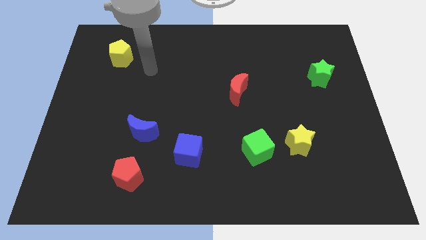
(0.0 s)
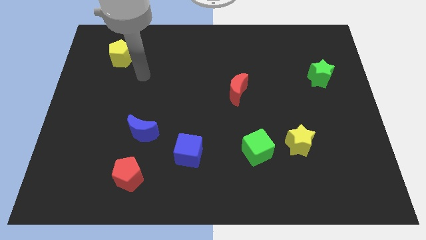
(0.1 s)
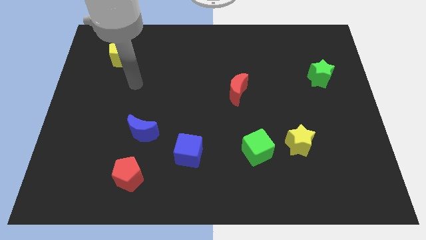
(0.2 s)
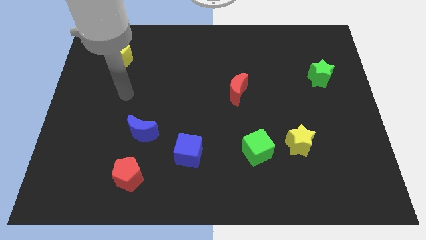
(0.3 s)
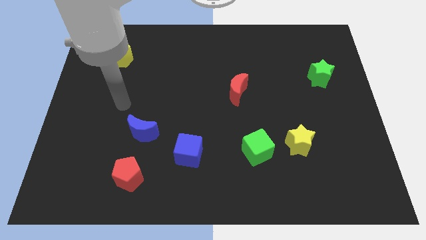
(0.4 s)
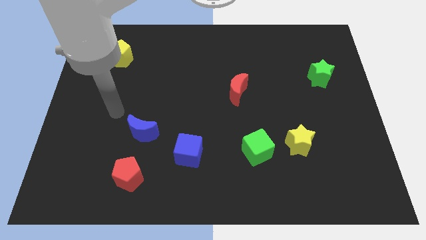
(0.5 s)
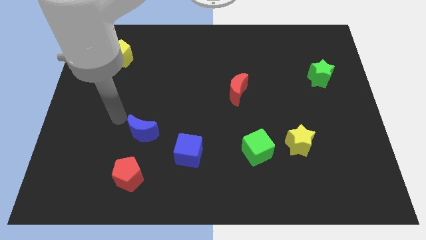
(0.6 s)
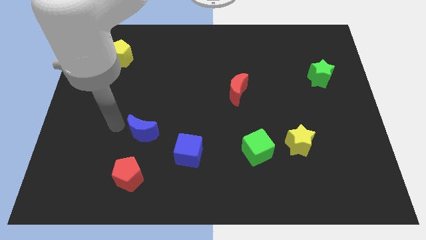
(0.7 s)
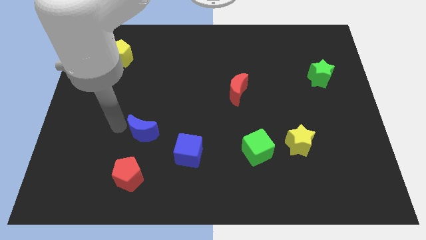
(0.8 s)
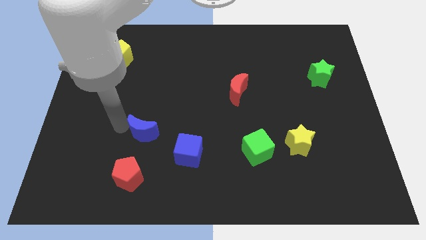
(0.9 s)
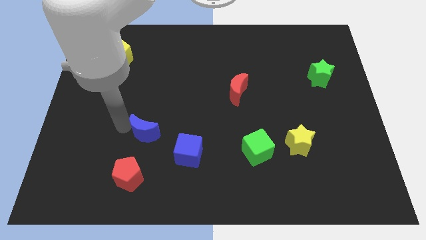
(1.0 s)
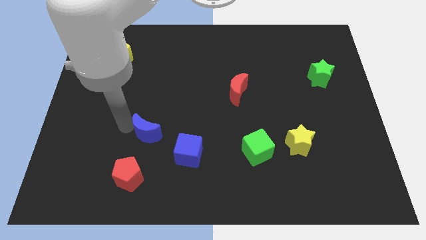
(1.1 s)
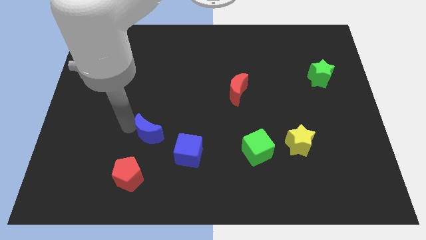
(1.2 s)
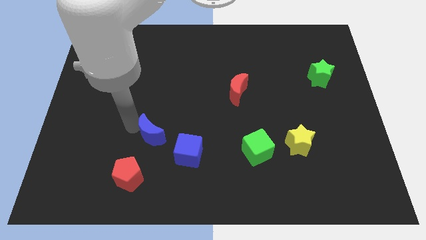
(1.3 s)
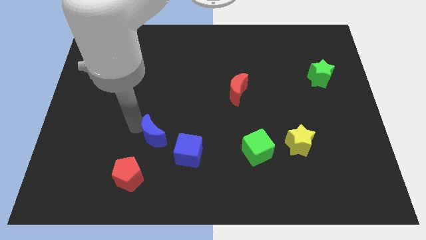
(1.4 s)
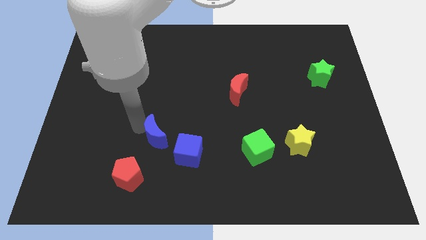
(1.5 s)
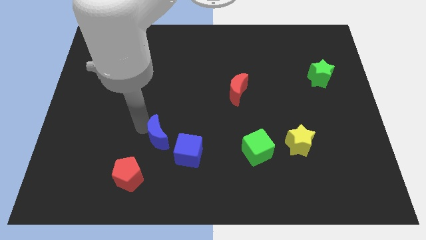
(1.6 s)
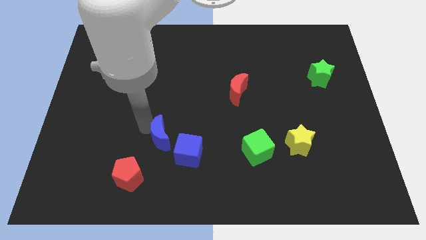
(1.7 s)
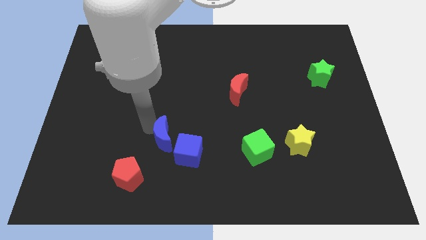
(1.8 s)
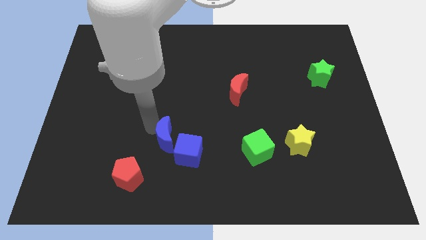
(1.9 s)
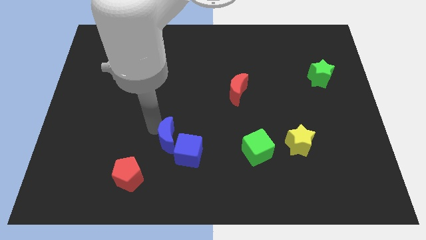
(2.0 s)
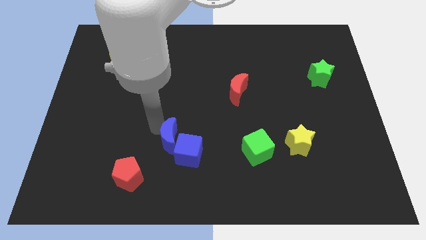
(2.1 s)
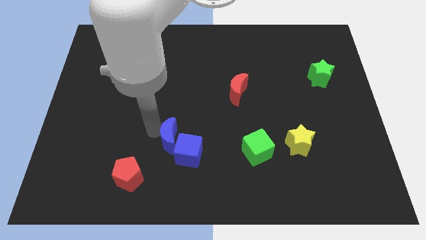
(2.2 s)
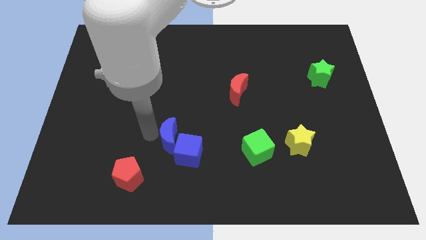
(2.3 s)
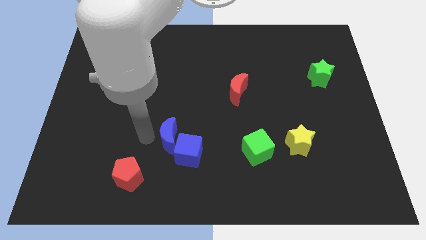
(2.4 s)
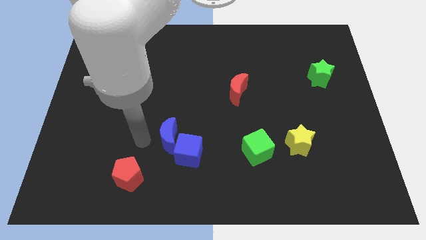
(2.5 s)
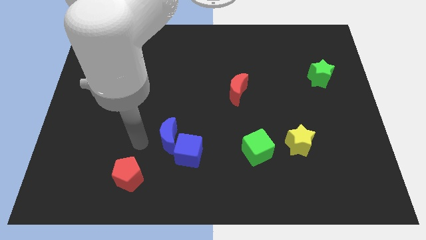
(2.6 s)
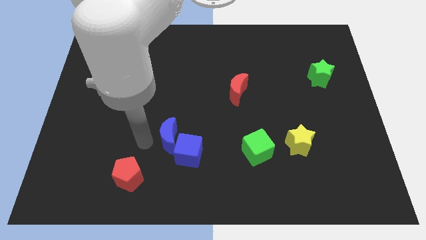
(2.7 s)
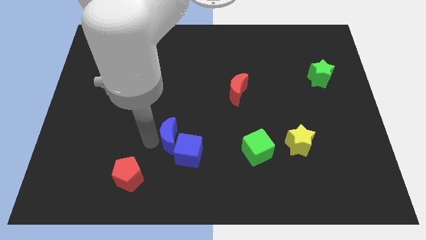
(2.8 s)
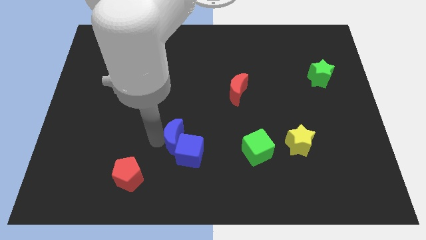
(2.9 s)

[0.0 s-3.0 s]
slide the blue moon somewhat to the right

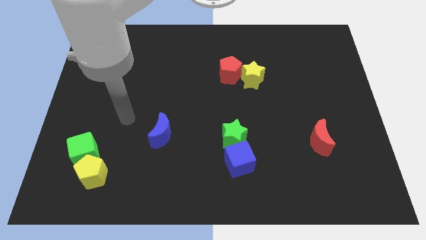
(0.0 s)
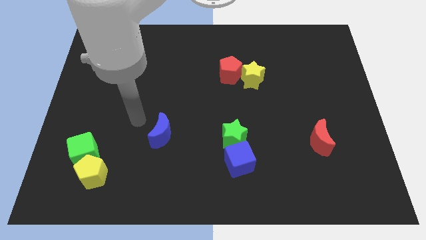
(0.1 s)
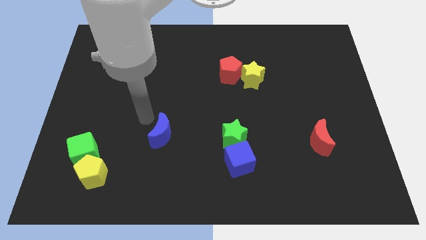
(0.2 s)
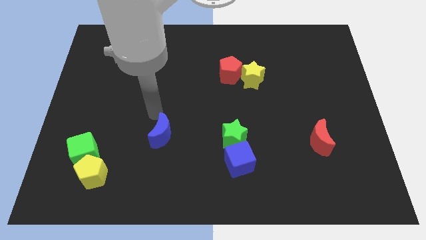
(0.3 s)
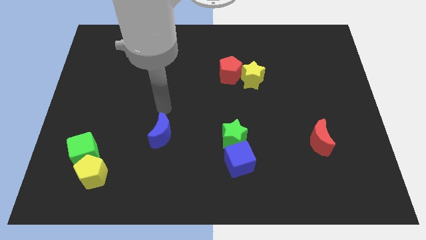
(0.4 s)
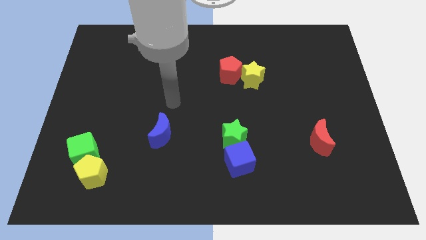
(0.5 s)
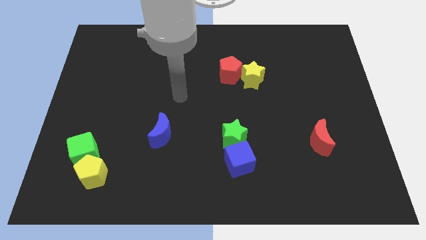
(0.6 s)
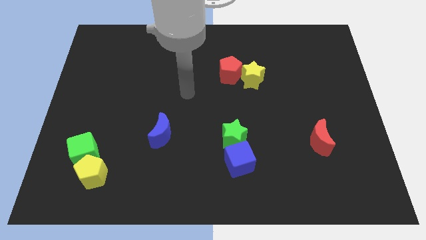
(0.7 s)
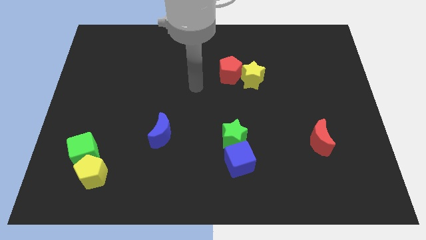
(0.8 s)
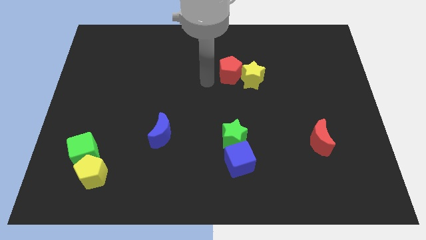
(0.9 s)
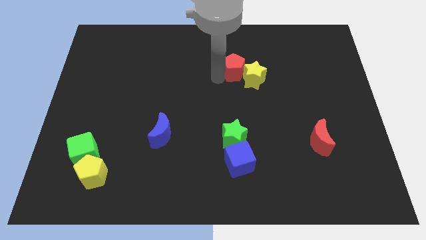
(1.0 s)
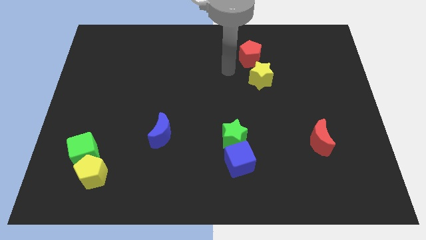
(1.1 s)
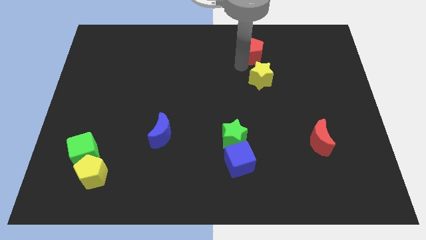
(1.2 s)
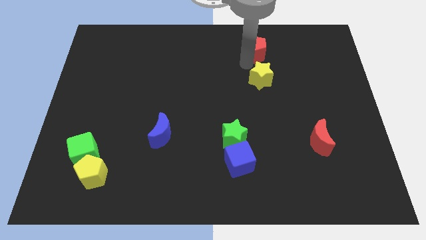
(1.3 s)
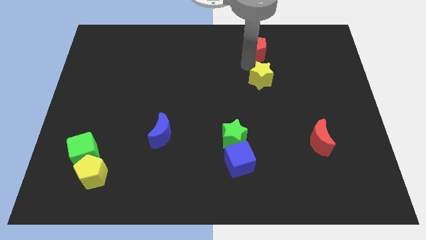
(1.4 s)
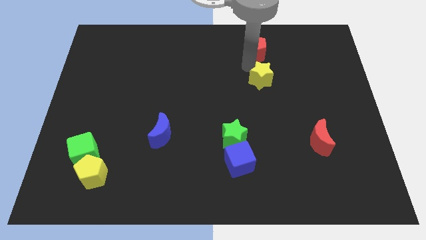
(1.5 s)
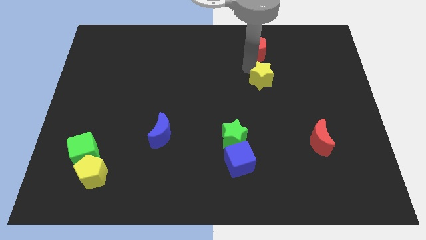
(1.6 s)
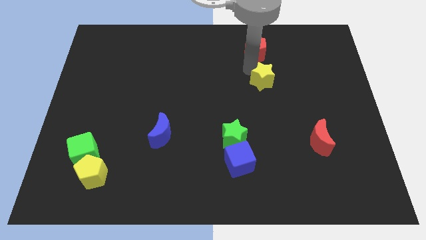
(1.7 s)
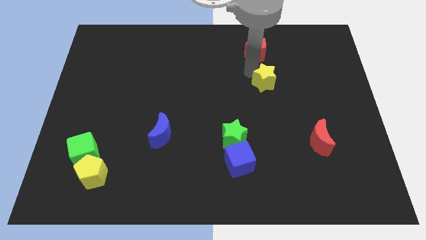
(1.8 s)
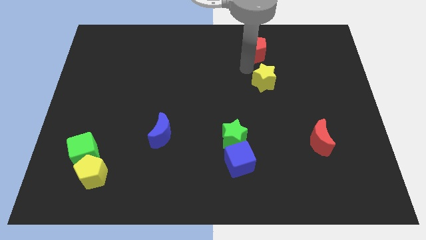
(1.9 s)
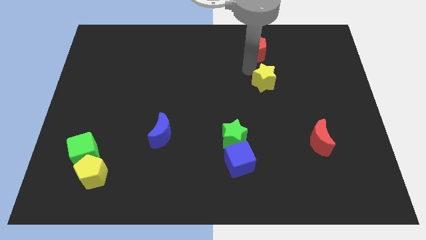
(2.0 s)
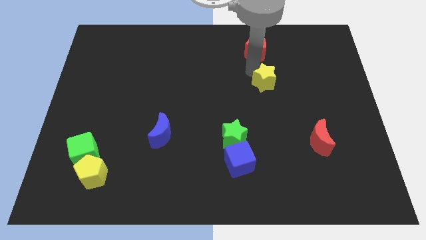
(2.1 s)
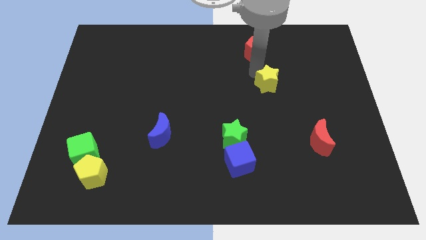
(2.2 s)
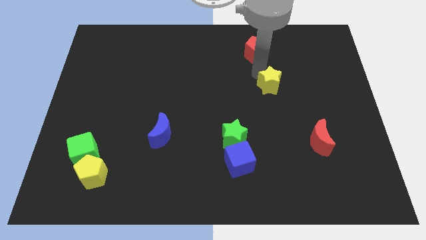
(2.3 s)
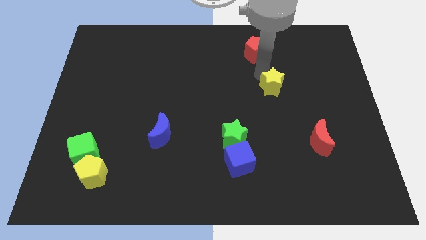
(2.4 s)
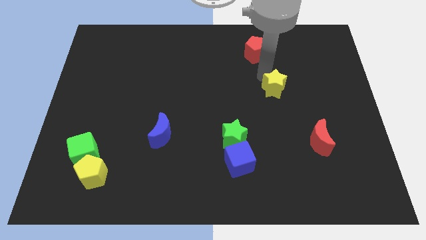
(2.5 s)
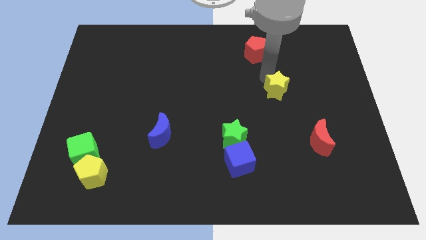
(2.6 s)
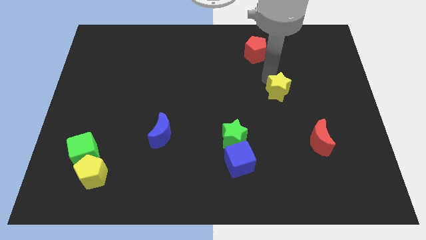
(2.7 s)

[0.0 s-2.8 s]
slightly slide the yellow star down and then right

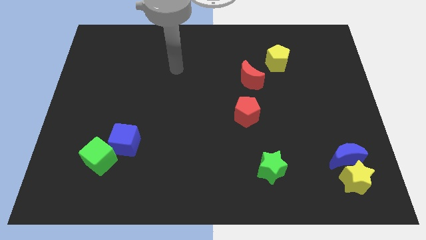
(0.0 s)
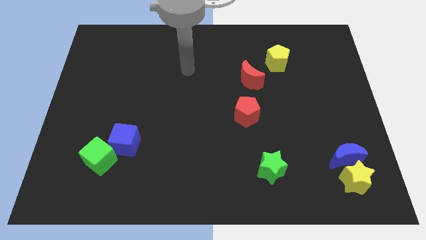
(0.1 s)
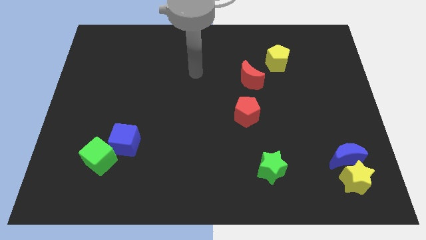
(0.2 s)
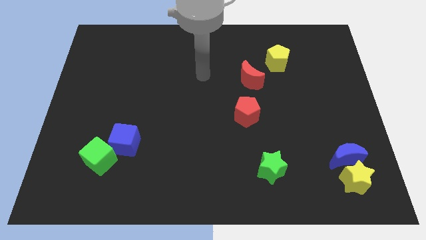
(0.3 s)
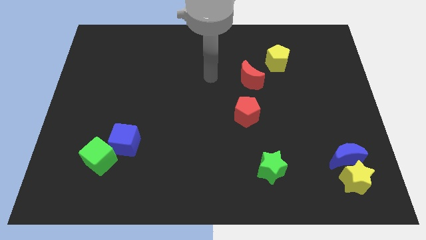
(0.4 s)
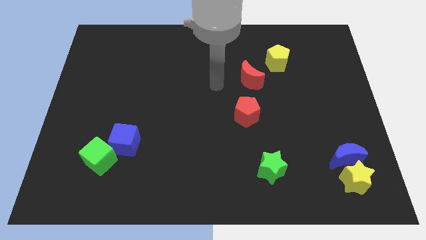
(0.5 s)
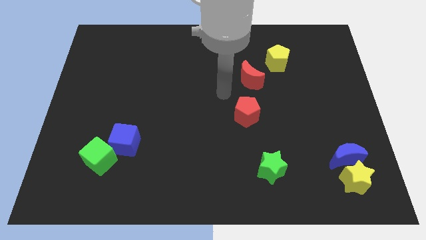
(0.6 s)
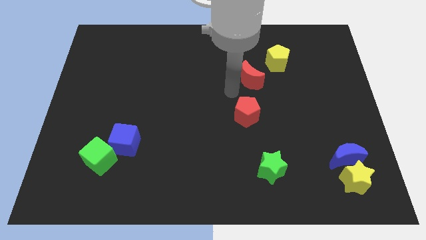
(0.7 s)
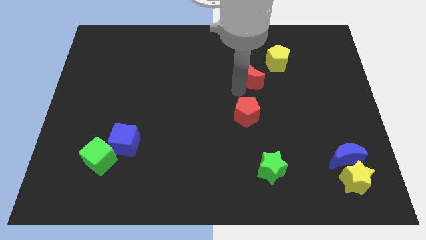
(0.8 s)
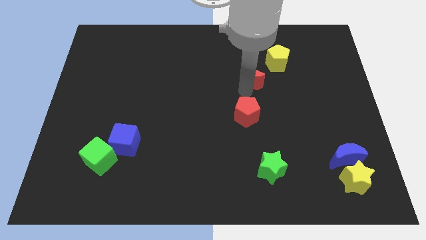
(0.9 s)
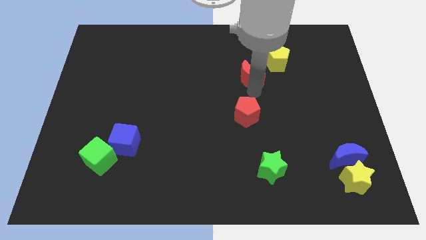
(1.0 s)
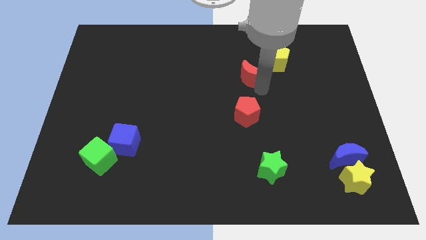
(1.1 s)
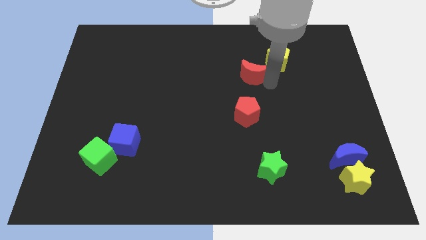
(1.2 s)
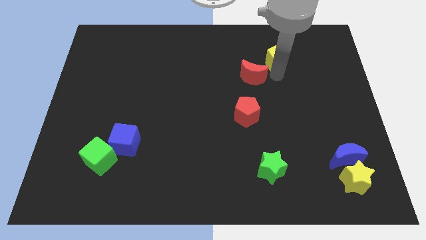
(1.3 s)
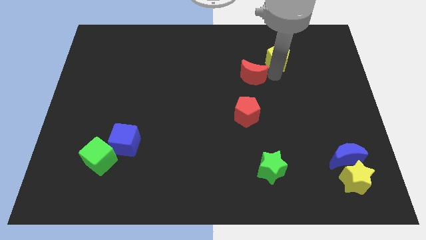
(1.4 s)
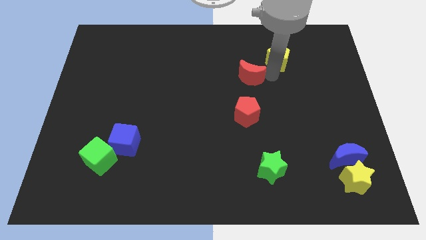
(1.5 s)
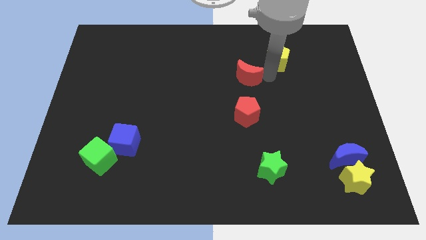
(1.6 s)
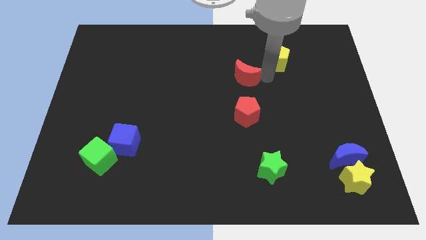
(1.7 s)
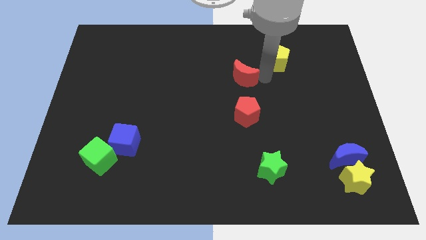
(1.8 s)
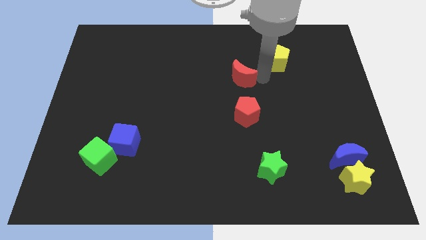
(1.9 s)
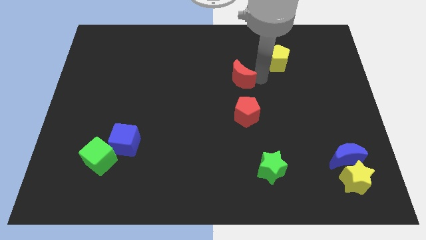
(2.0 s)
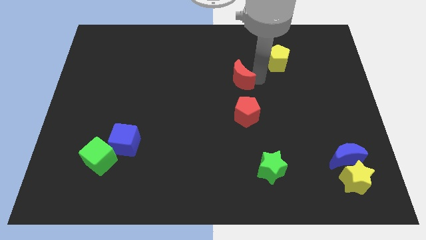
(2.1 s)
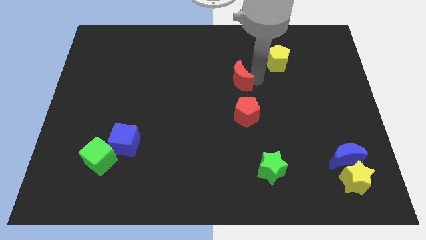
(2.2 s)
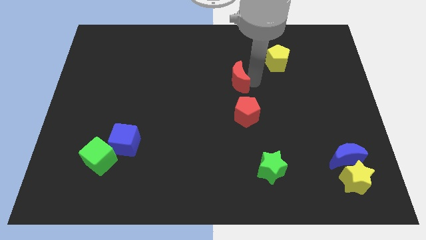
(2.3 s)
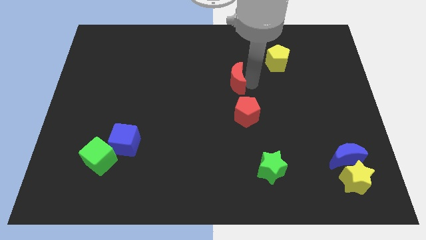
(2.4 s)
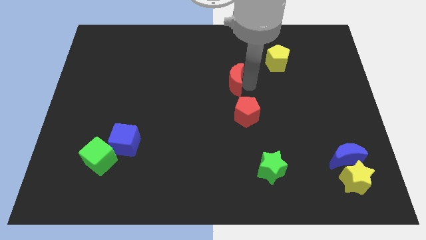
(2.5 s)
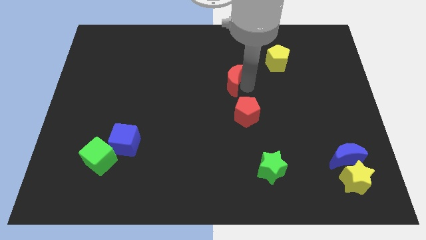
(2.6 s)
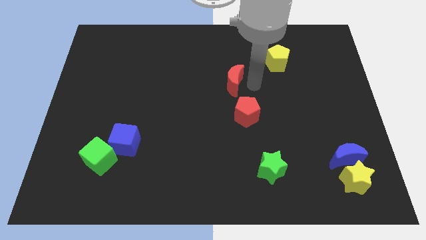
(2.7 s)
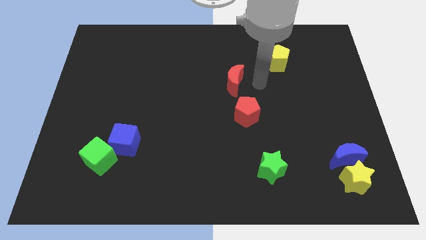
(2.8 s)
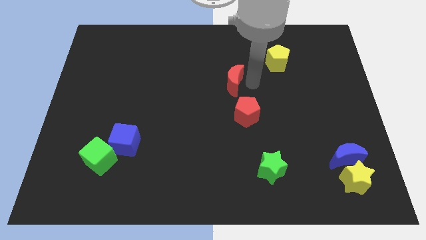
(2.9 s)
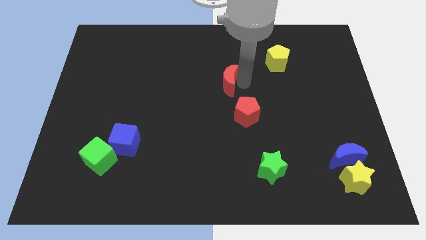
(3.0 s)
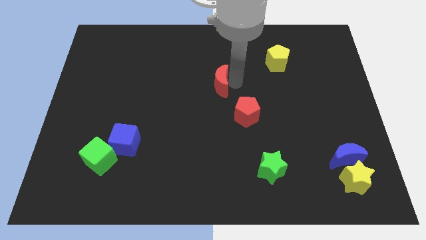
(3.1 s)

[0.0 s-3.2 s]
push the red moon a little bit to the left
